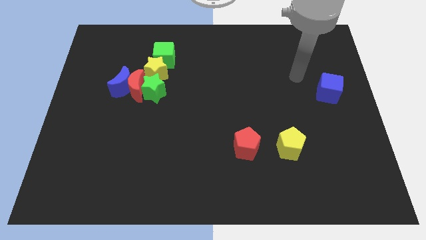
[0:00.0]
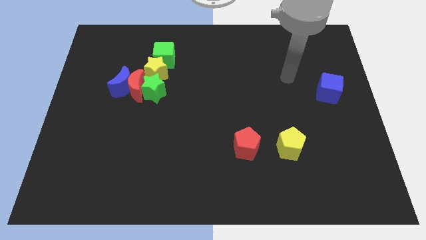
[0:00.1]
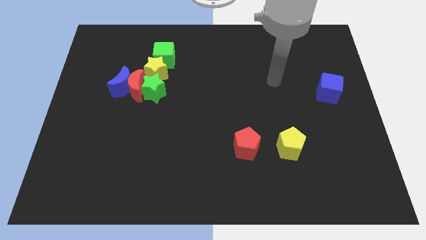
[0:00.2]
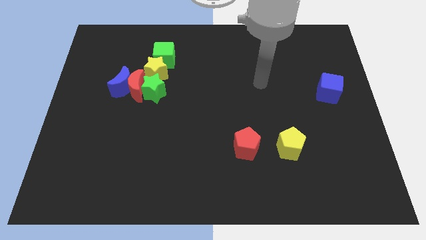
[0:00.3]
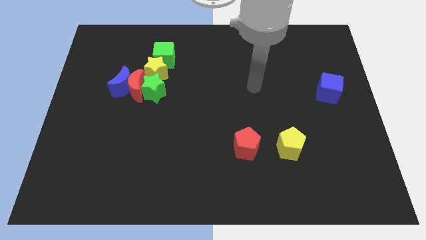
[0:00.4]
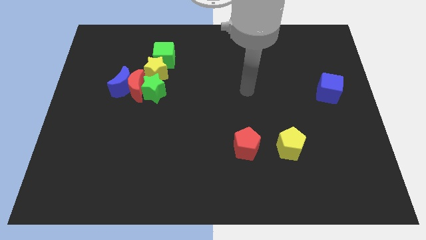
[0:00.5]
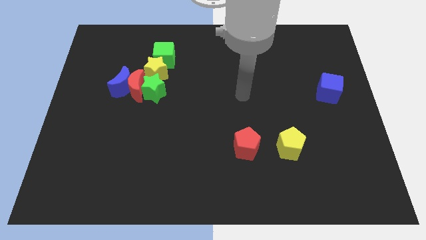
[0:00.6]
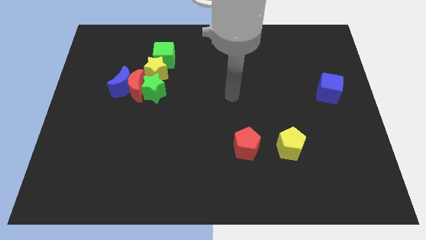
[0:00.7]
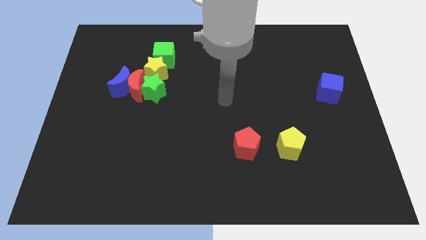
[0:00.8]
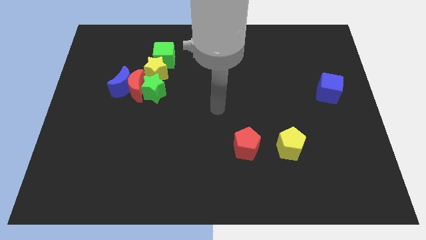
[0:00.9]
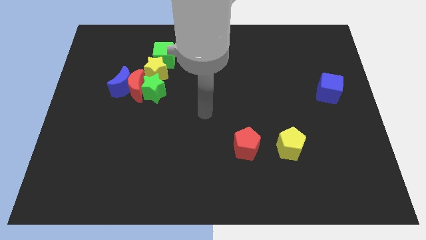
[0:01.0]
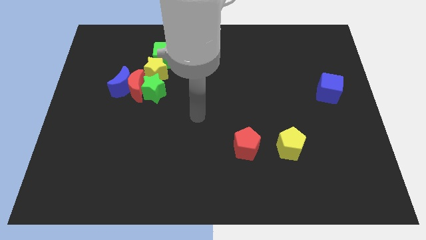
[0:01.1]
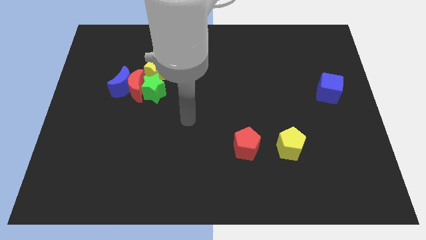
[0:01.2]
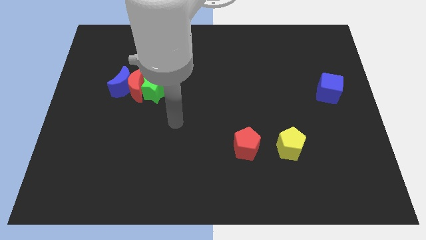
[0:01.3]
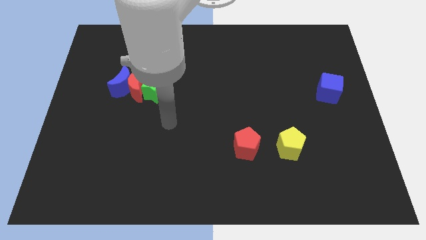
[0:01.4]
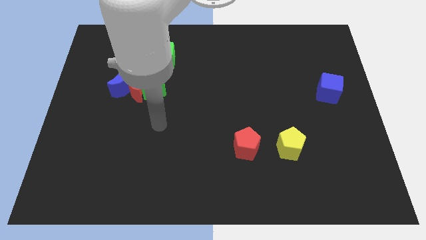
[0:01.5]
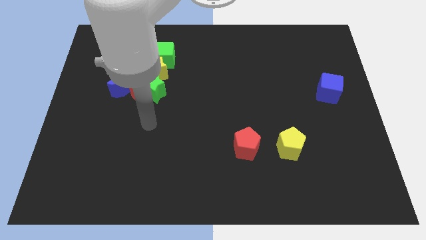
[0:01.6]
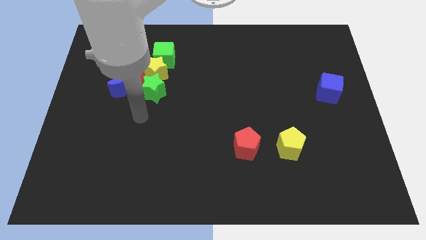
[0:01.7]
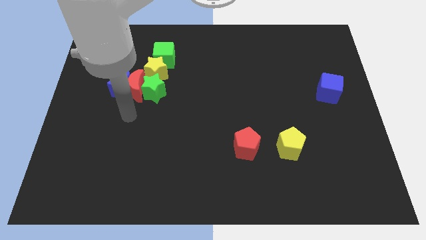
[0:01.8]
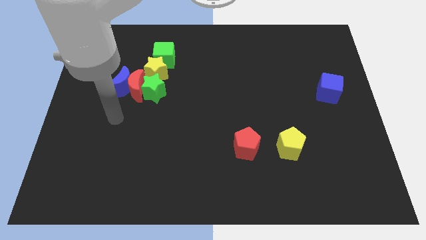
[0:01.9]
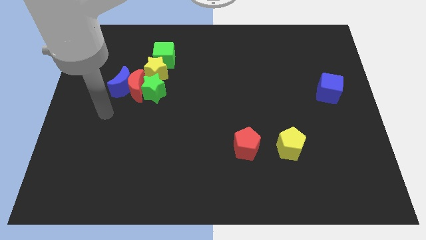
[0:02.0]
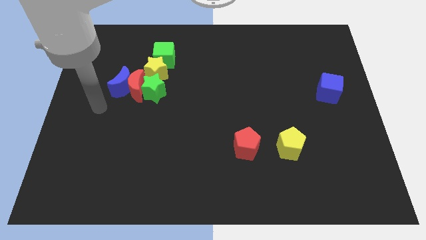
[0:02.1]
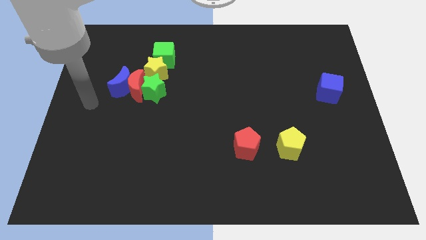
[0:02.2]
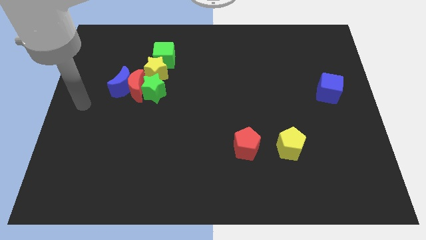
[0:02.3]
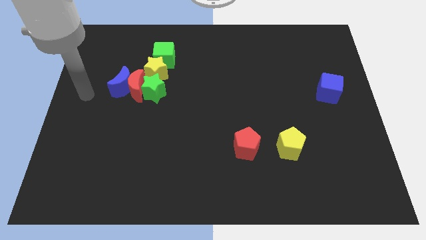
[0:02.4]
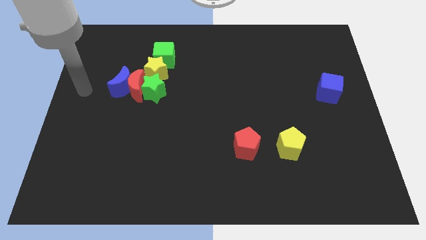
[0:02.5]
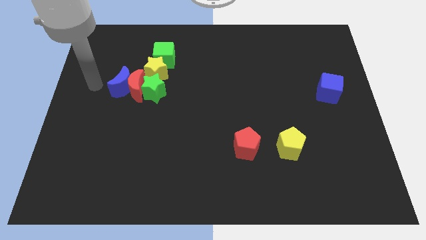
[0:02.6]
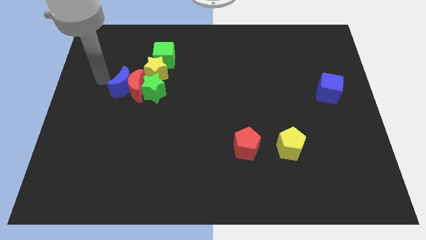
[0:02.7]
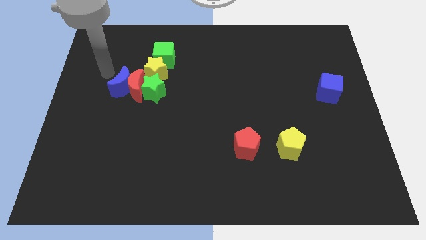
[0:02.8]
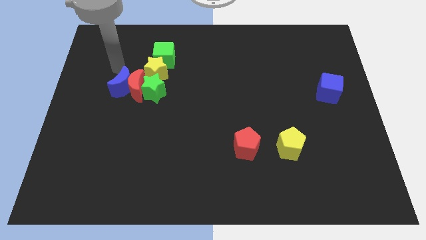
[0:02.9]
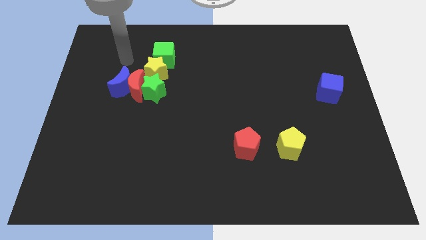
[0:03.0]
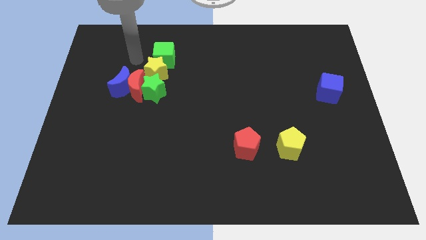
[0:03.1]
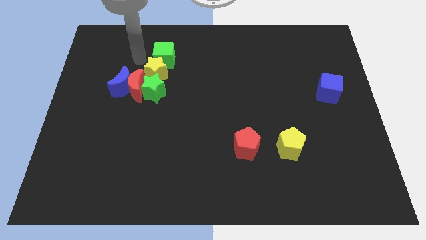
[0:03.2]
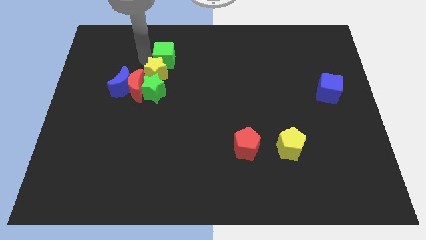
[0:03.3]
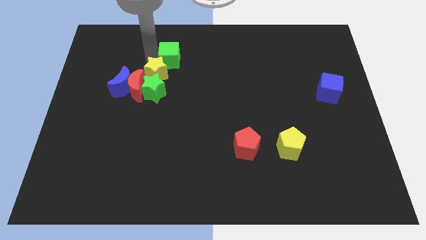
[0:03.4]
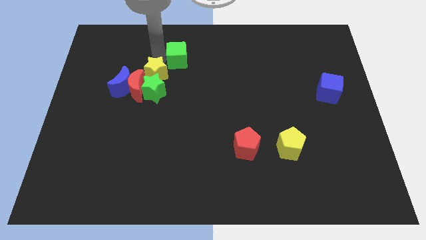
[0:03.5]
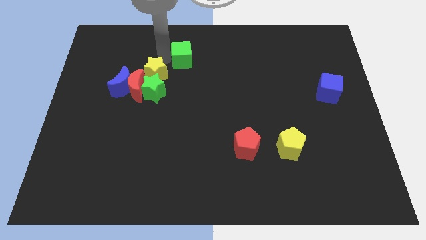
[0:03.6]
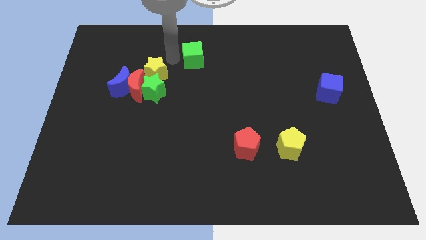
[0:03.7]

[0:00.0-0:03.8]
move the green cube to the right a little bit

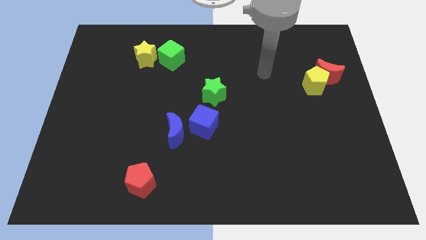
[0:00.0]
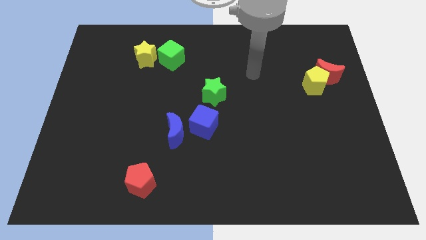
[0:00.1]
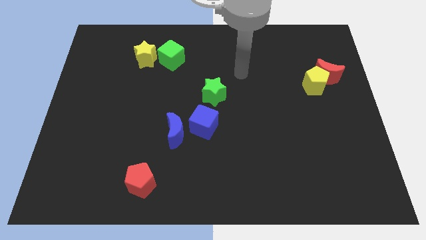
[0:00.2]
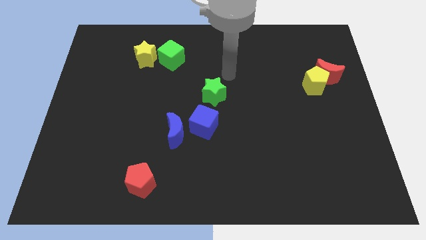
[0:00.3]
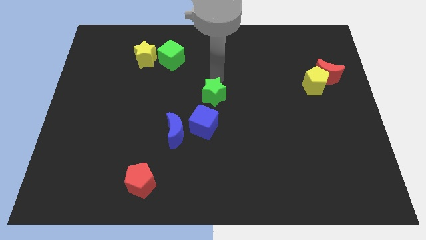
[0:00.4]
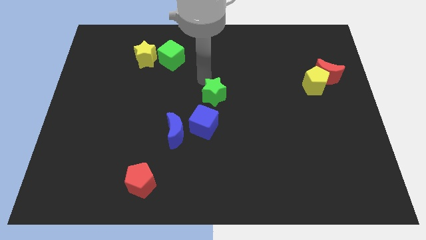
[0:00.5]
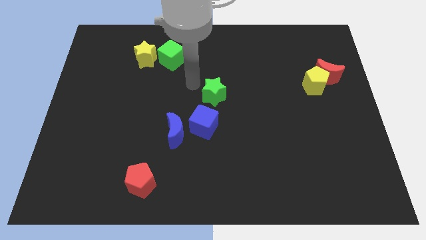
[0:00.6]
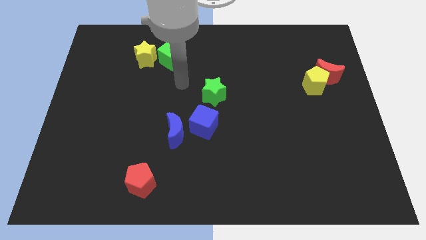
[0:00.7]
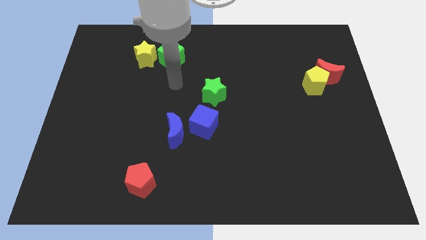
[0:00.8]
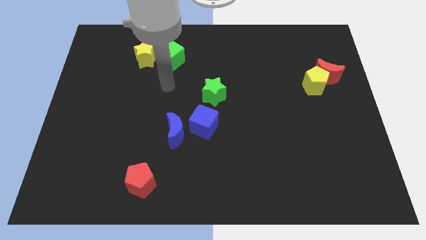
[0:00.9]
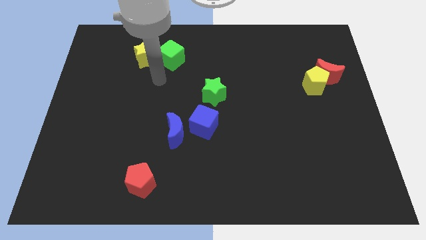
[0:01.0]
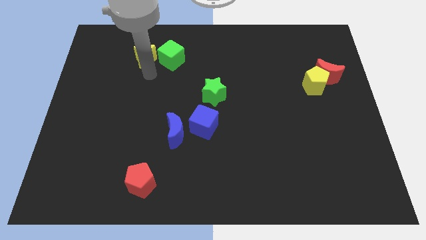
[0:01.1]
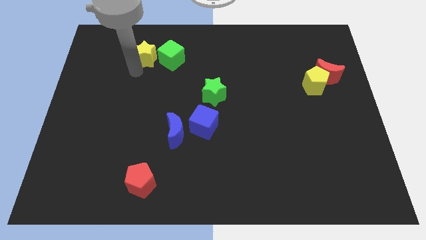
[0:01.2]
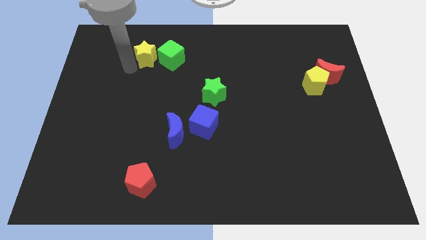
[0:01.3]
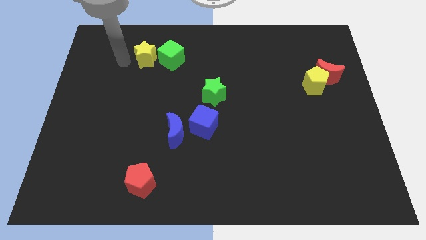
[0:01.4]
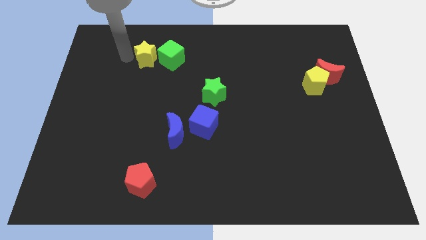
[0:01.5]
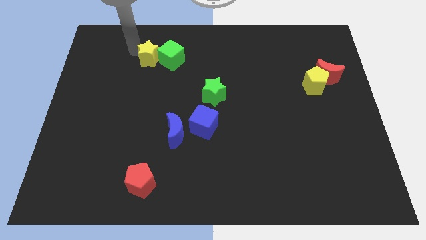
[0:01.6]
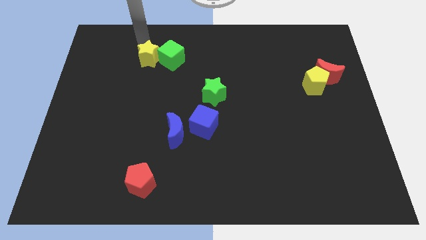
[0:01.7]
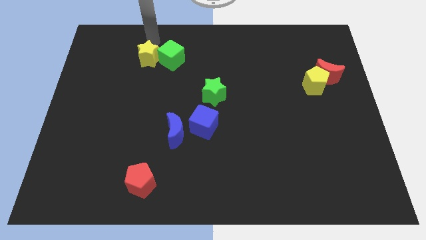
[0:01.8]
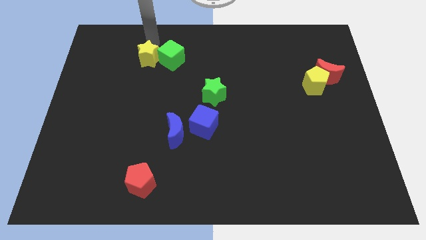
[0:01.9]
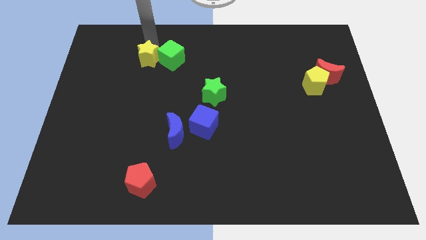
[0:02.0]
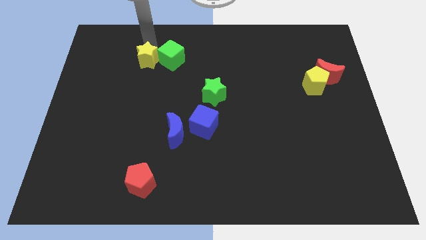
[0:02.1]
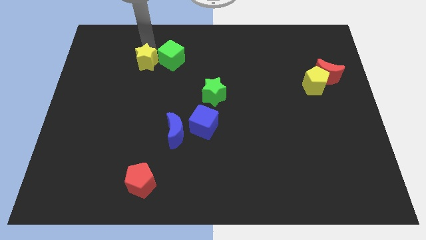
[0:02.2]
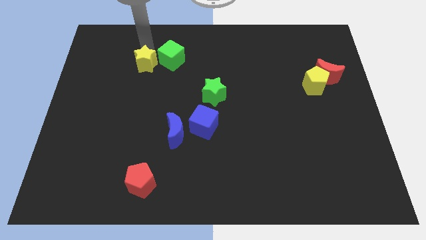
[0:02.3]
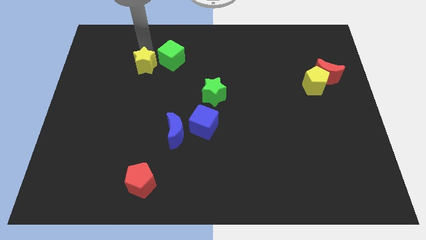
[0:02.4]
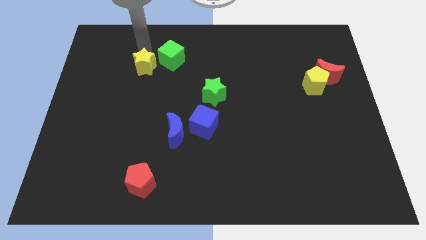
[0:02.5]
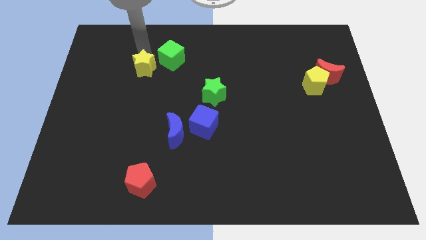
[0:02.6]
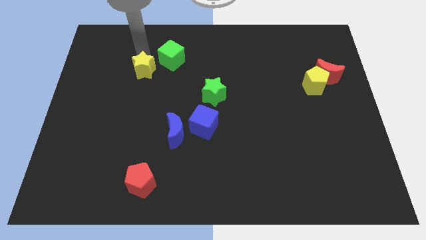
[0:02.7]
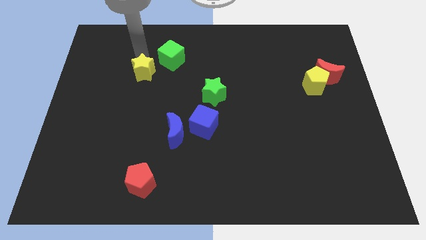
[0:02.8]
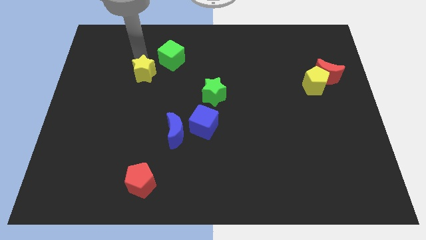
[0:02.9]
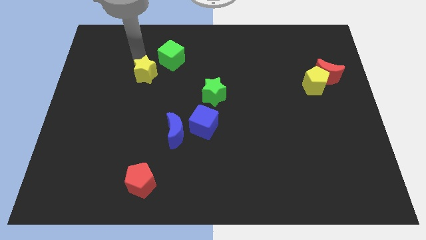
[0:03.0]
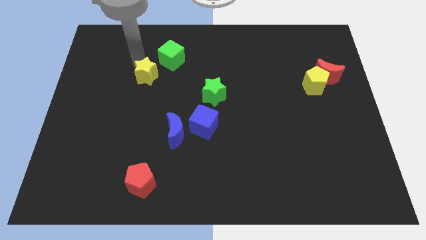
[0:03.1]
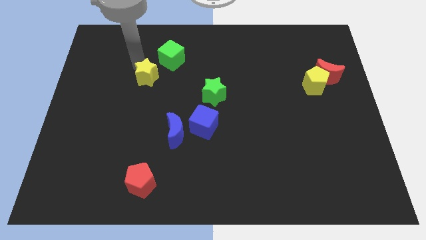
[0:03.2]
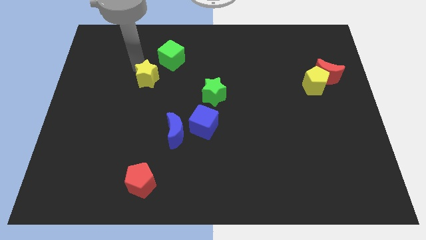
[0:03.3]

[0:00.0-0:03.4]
slide the yellow star a bit down

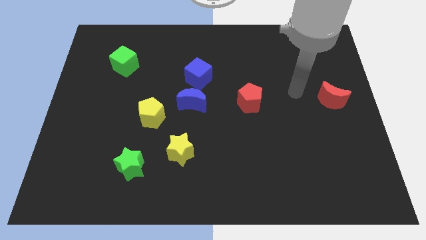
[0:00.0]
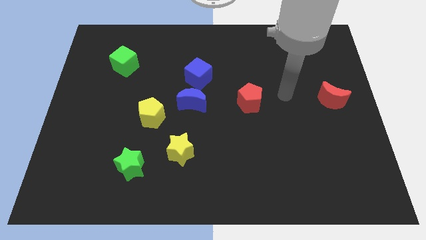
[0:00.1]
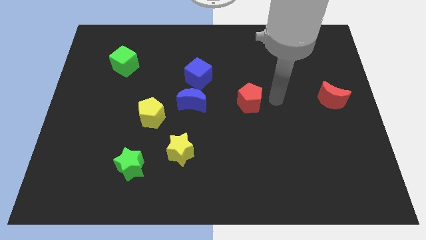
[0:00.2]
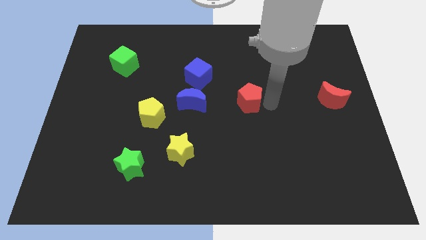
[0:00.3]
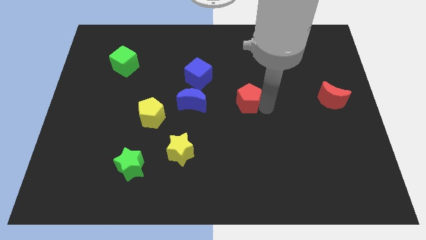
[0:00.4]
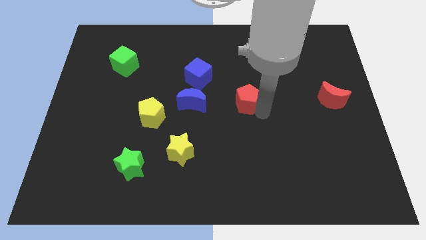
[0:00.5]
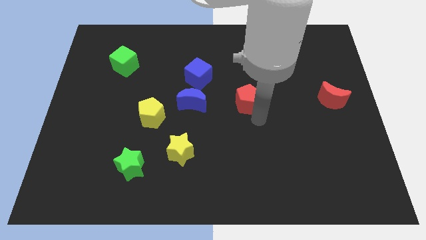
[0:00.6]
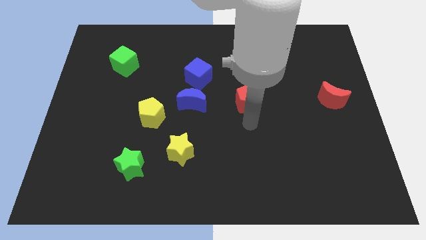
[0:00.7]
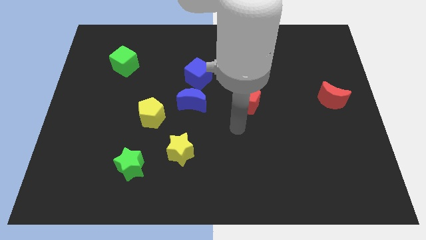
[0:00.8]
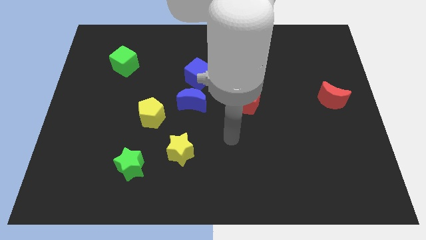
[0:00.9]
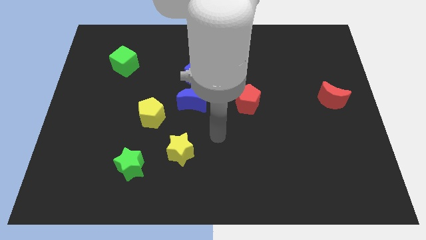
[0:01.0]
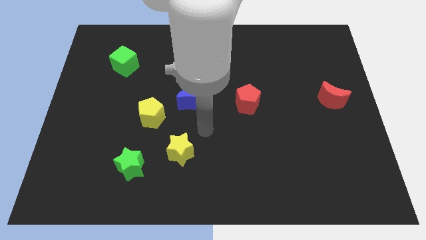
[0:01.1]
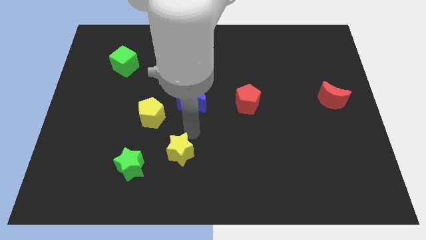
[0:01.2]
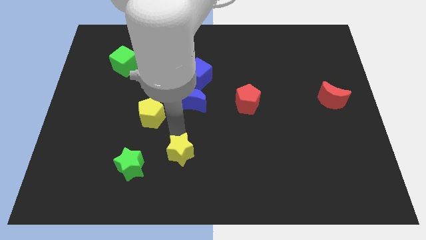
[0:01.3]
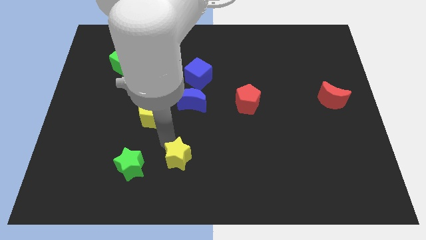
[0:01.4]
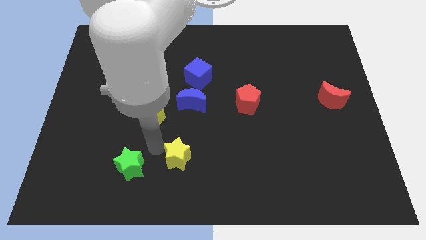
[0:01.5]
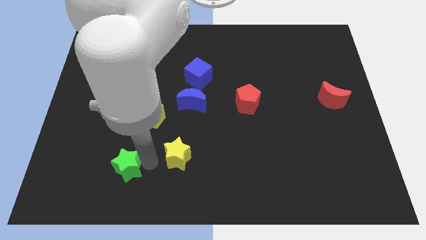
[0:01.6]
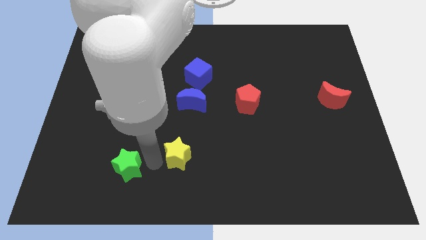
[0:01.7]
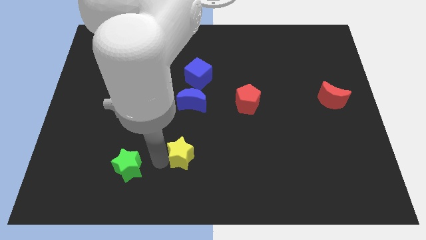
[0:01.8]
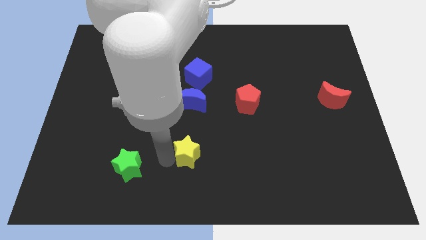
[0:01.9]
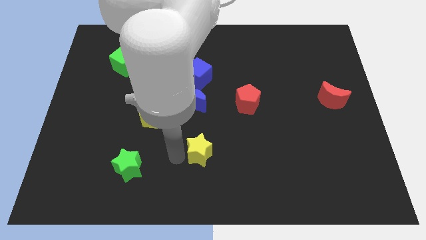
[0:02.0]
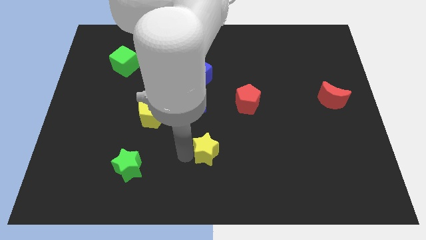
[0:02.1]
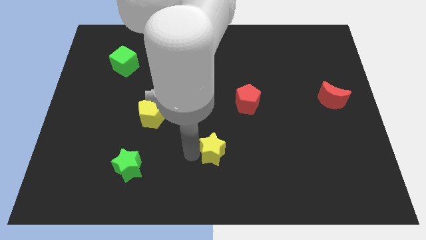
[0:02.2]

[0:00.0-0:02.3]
slide the yellow star a little bit right
